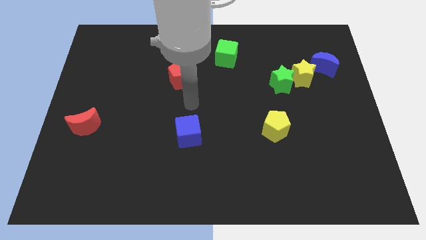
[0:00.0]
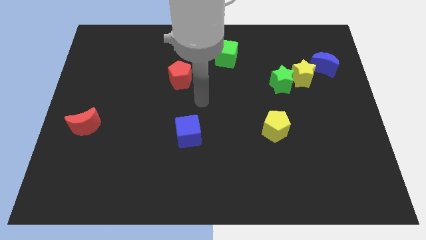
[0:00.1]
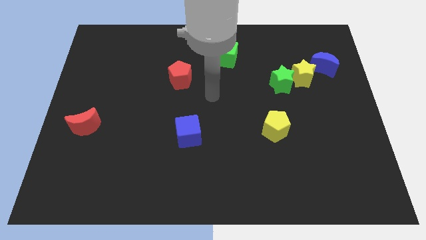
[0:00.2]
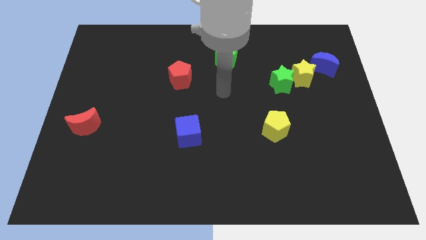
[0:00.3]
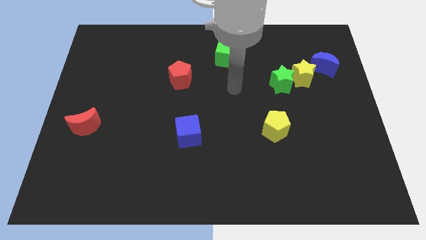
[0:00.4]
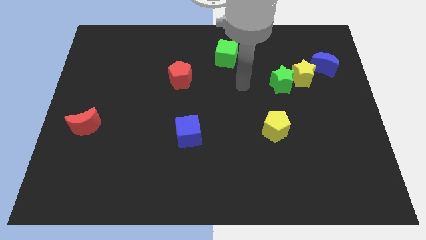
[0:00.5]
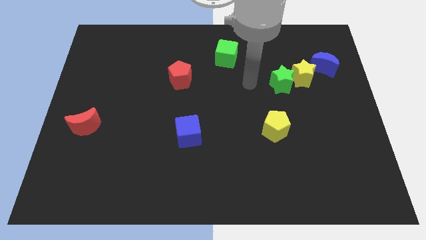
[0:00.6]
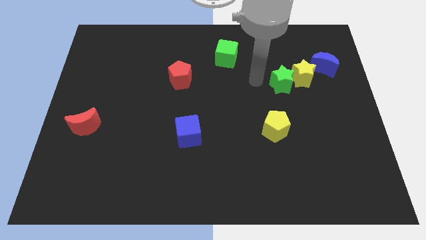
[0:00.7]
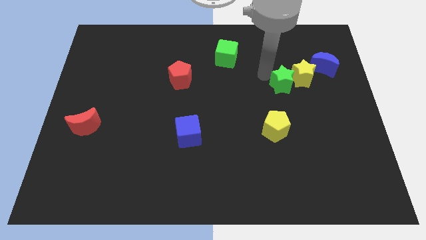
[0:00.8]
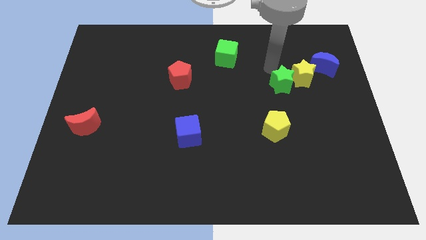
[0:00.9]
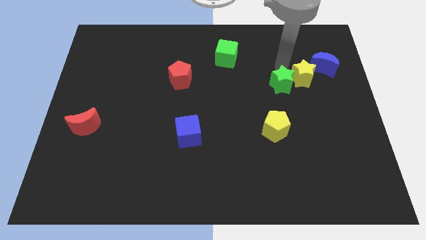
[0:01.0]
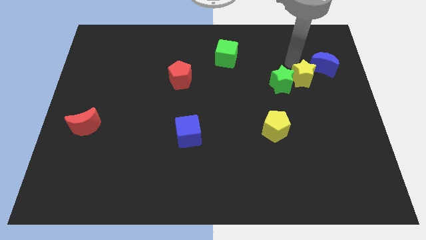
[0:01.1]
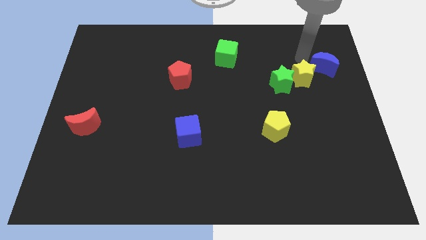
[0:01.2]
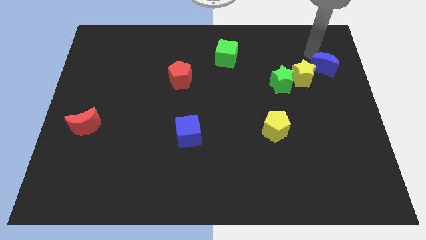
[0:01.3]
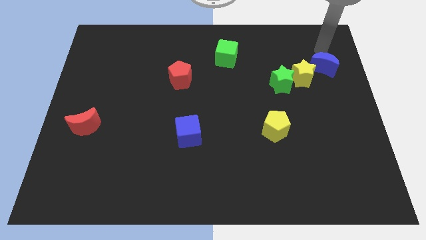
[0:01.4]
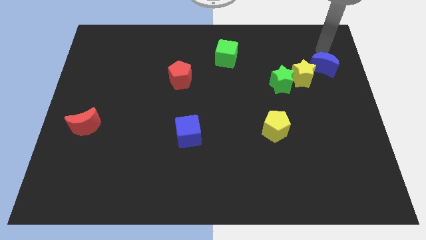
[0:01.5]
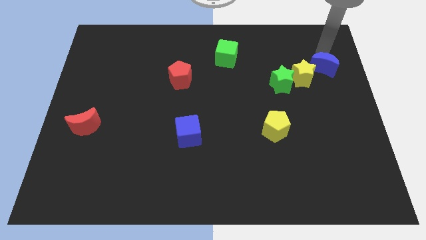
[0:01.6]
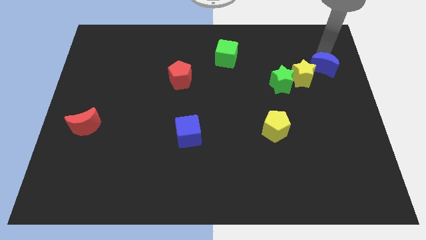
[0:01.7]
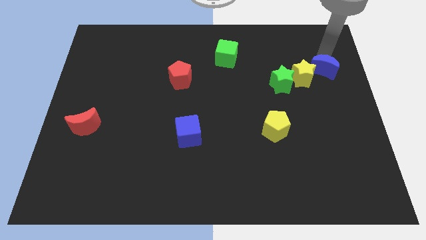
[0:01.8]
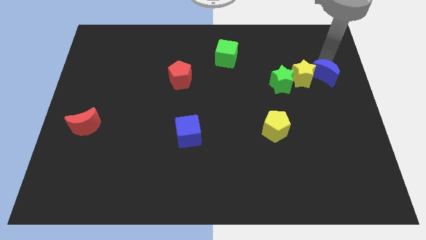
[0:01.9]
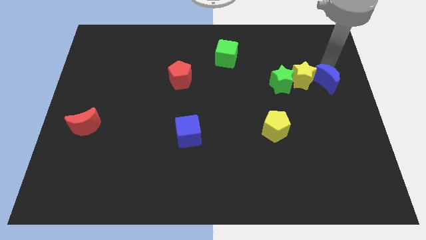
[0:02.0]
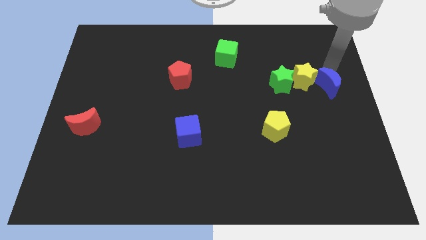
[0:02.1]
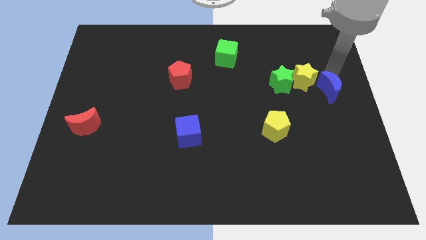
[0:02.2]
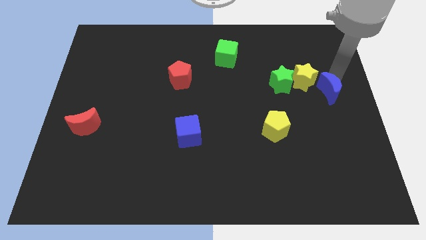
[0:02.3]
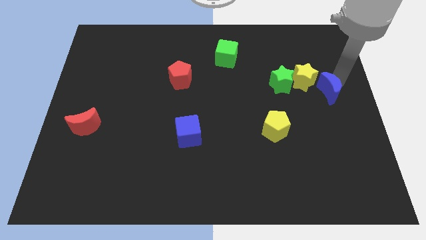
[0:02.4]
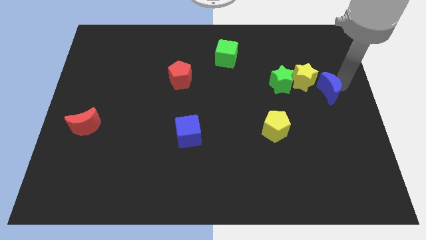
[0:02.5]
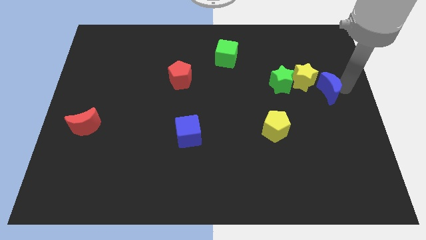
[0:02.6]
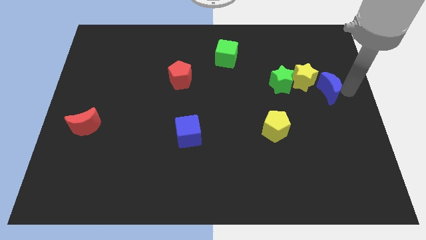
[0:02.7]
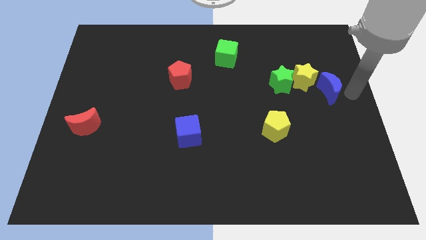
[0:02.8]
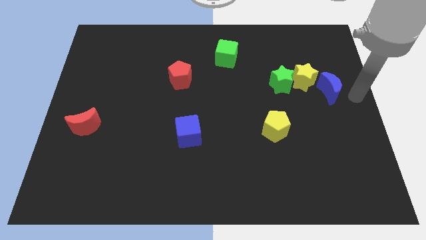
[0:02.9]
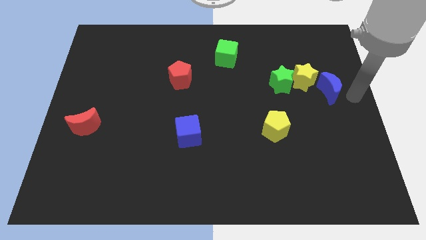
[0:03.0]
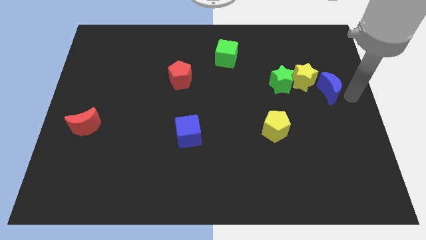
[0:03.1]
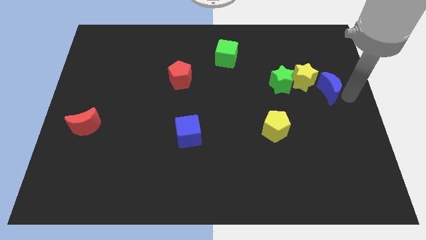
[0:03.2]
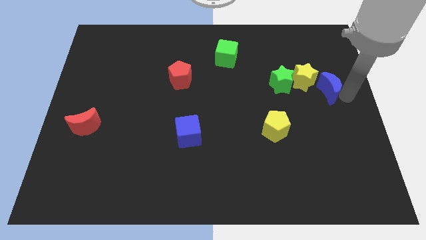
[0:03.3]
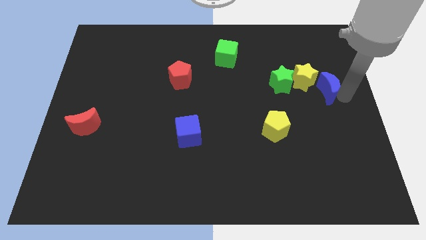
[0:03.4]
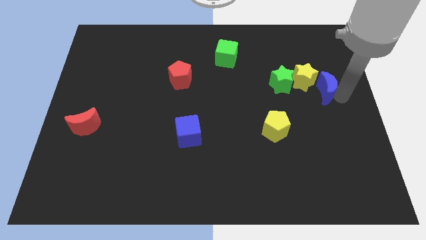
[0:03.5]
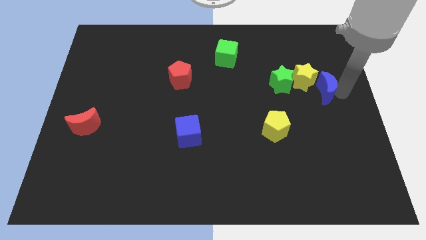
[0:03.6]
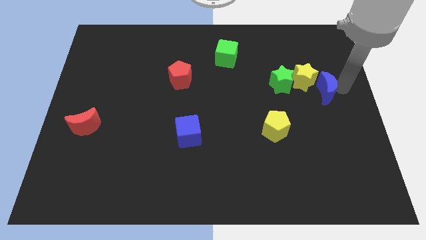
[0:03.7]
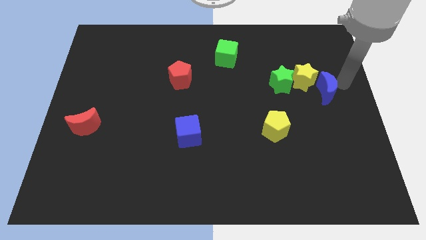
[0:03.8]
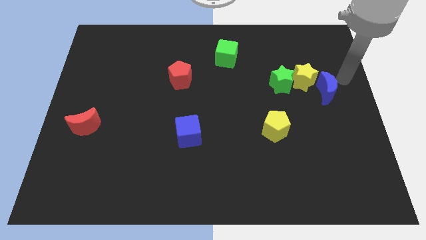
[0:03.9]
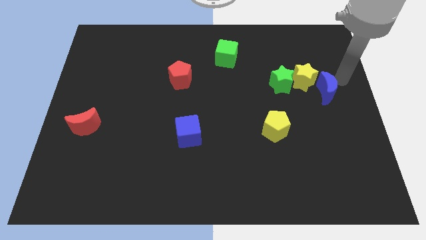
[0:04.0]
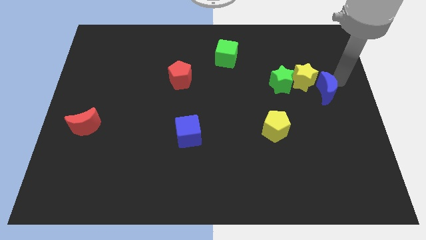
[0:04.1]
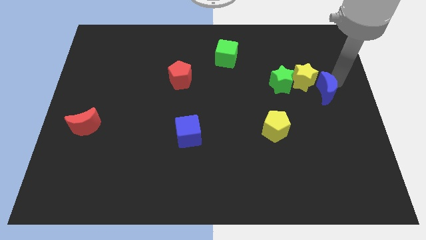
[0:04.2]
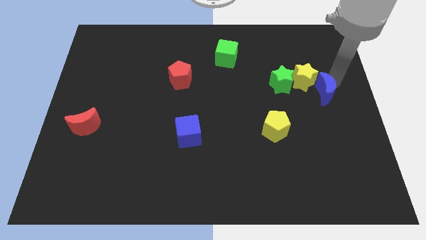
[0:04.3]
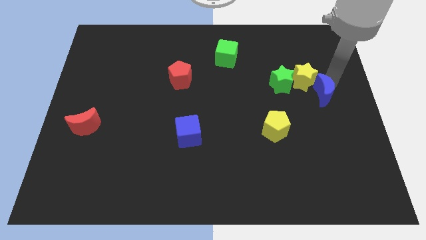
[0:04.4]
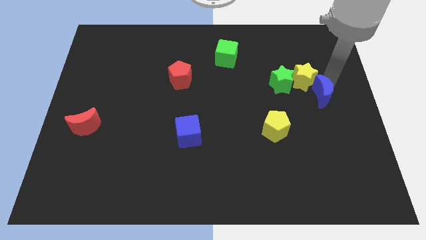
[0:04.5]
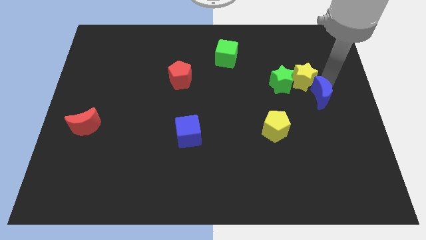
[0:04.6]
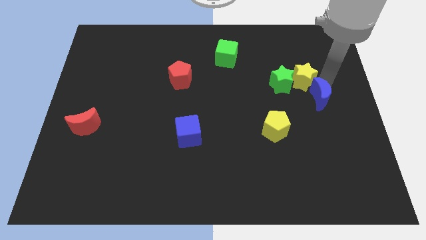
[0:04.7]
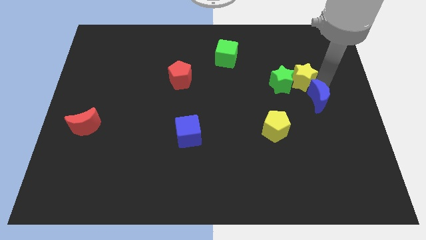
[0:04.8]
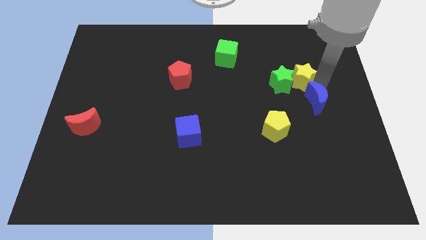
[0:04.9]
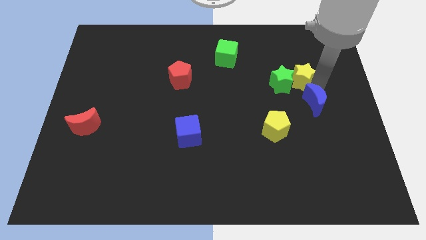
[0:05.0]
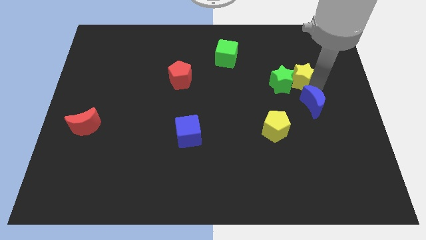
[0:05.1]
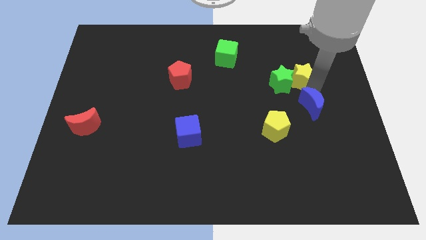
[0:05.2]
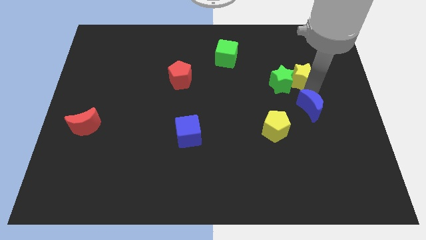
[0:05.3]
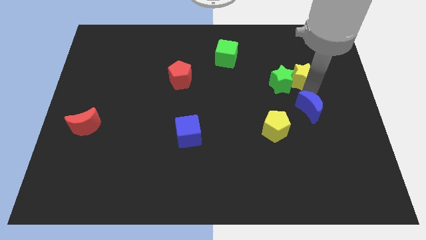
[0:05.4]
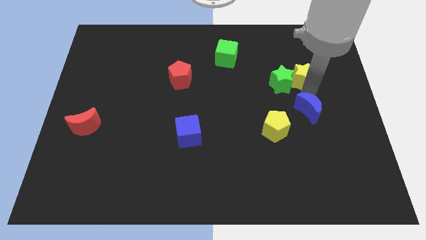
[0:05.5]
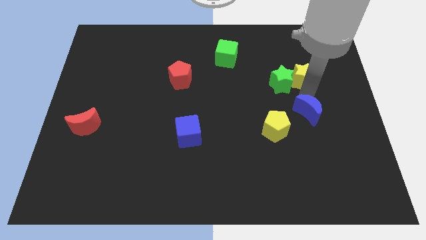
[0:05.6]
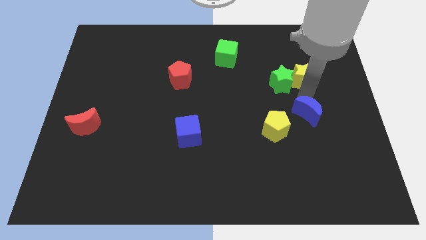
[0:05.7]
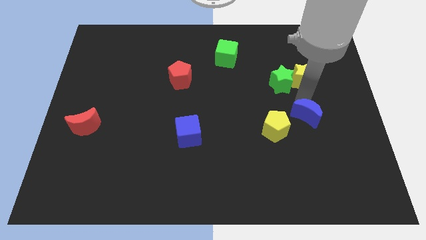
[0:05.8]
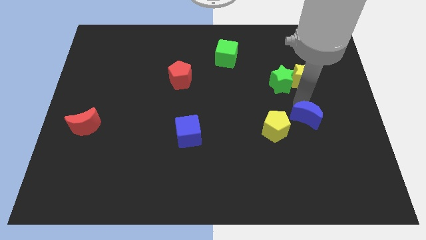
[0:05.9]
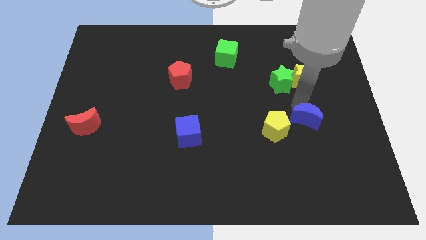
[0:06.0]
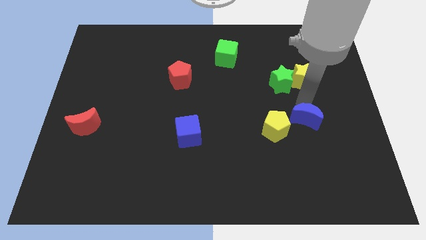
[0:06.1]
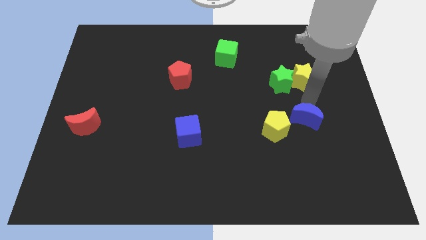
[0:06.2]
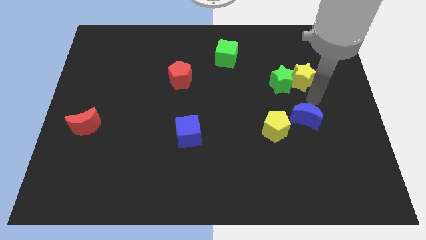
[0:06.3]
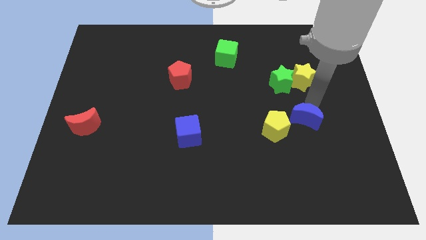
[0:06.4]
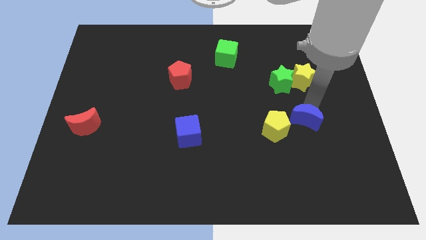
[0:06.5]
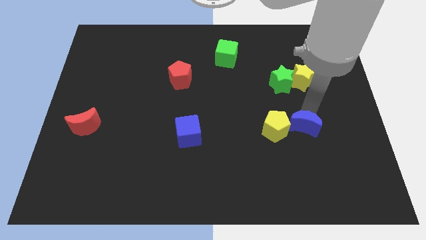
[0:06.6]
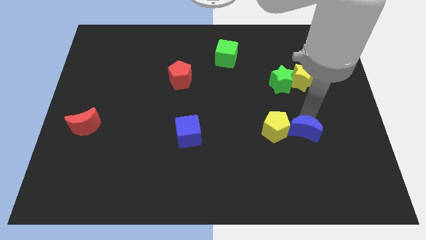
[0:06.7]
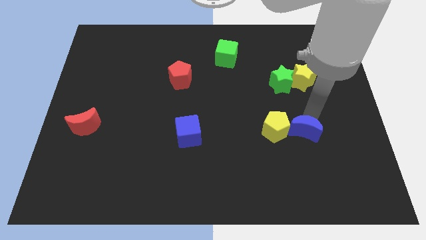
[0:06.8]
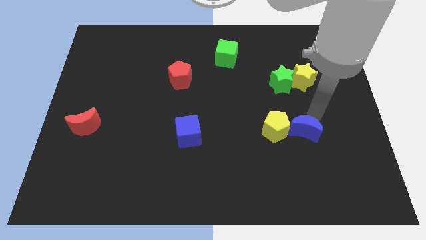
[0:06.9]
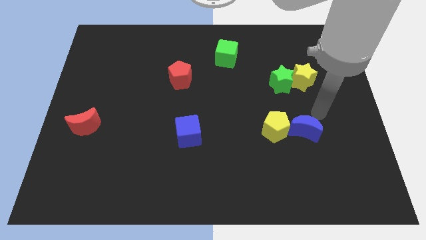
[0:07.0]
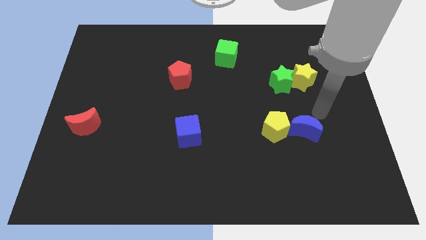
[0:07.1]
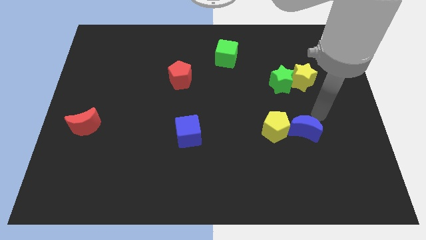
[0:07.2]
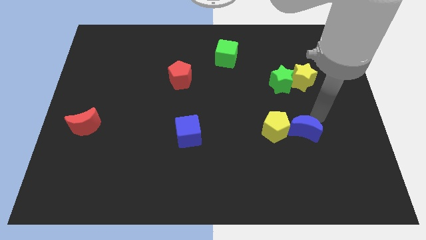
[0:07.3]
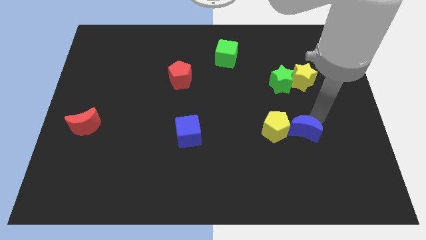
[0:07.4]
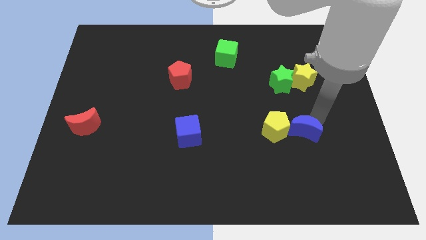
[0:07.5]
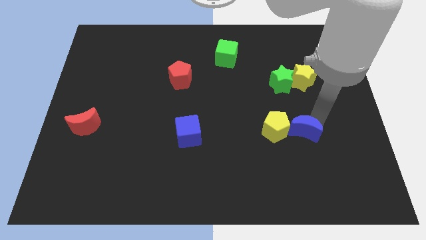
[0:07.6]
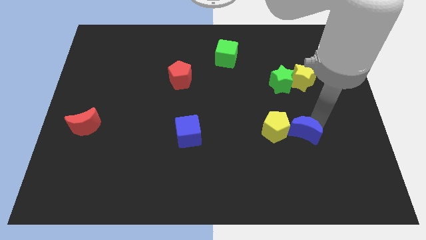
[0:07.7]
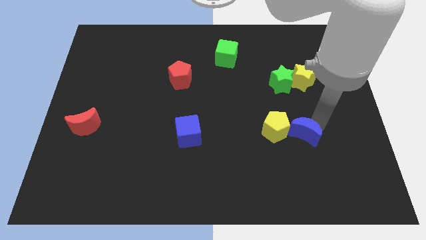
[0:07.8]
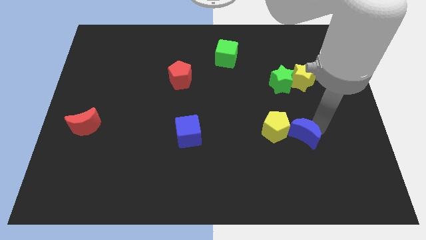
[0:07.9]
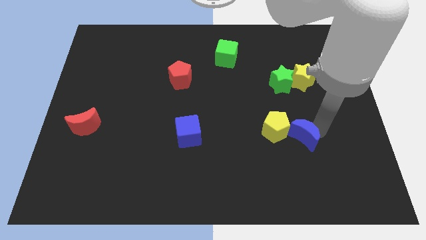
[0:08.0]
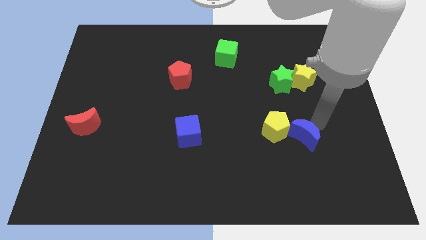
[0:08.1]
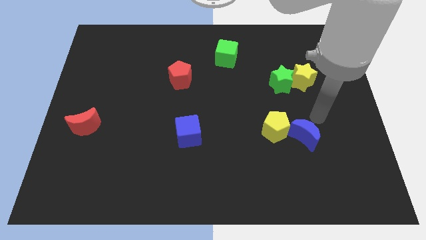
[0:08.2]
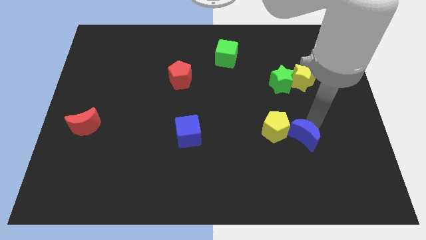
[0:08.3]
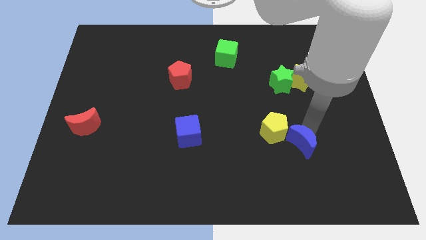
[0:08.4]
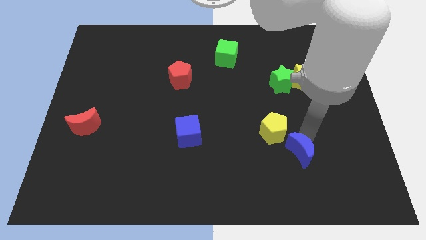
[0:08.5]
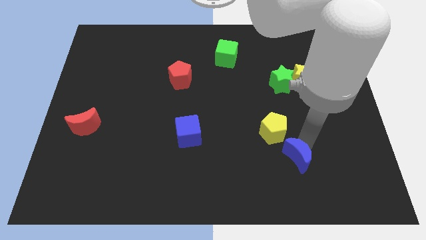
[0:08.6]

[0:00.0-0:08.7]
move the blue moon below the yellow pentagon
